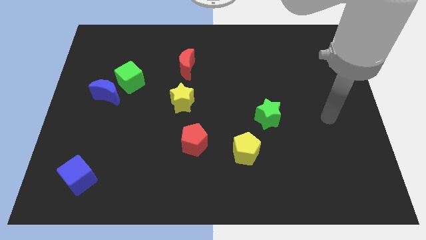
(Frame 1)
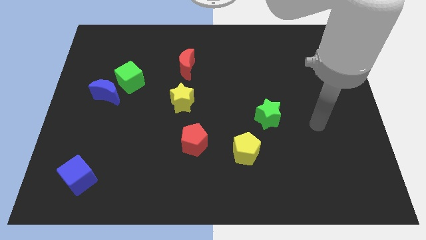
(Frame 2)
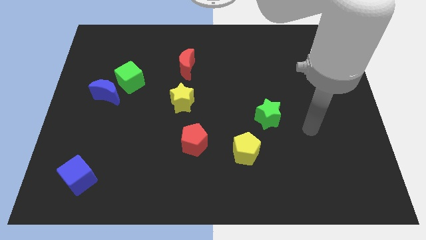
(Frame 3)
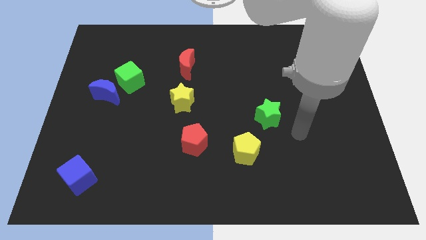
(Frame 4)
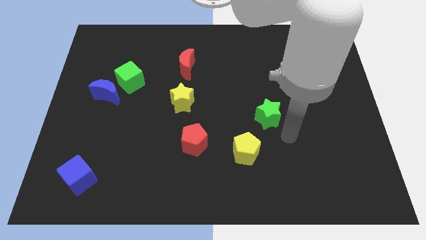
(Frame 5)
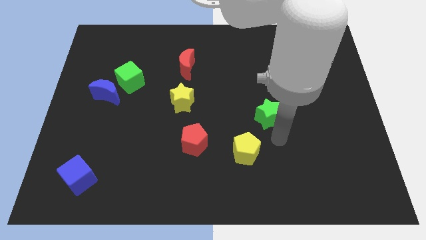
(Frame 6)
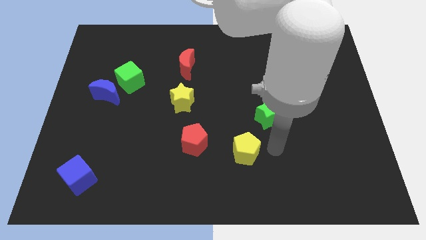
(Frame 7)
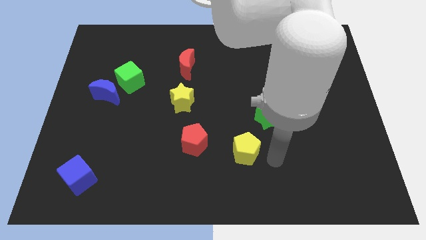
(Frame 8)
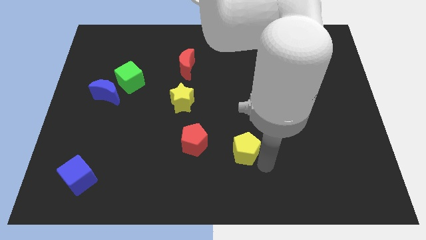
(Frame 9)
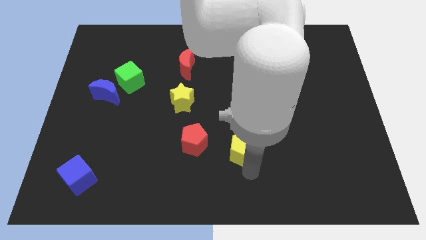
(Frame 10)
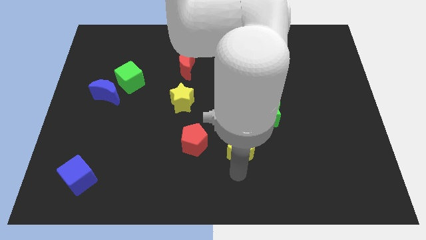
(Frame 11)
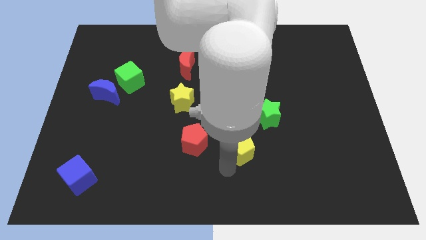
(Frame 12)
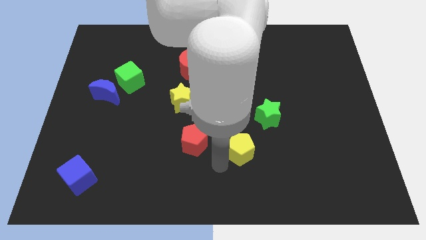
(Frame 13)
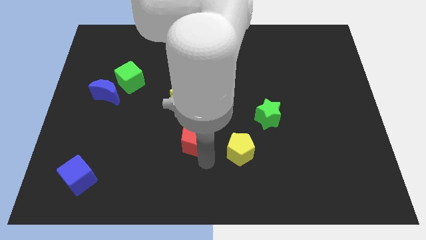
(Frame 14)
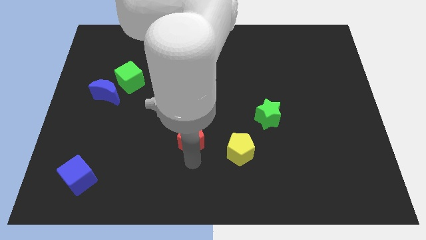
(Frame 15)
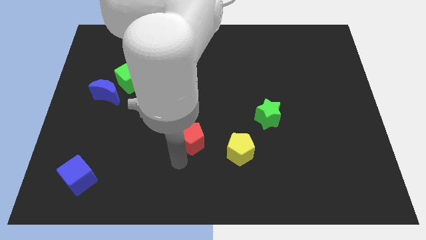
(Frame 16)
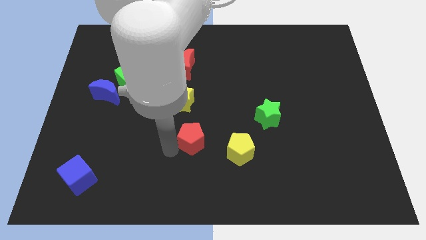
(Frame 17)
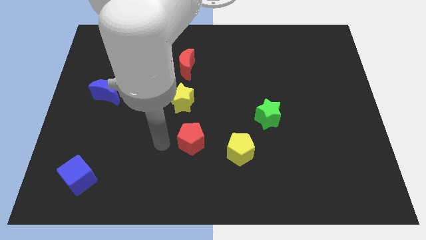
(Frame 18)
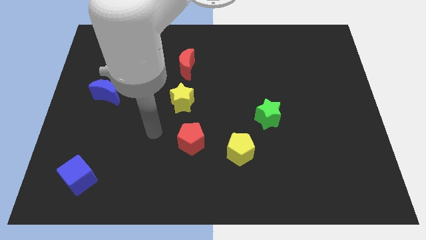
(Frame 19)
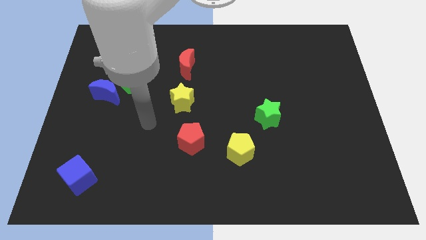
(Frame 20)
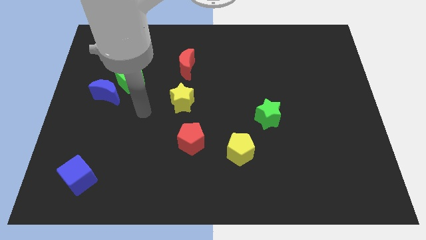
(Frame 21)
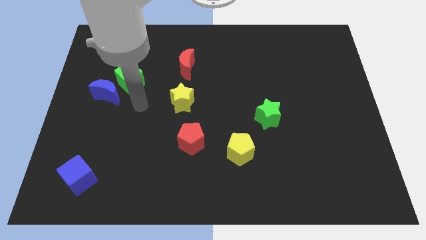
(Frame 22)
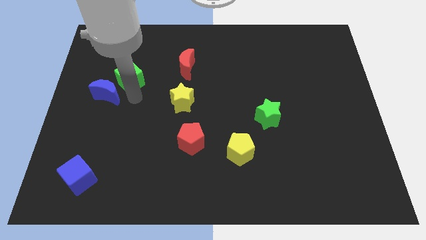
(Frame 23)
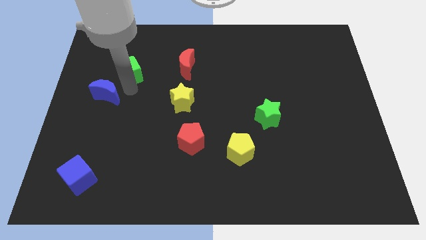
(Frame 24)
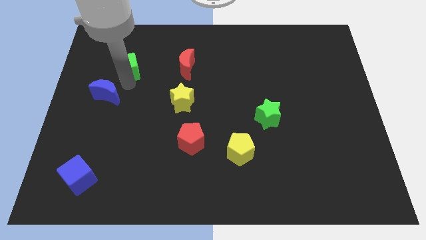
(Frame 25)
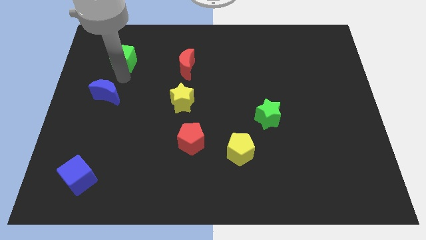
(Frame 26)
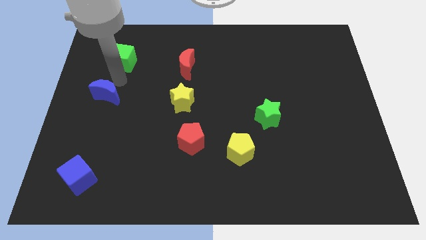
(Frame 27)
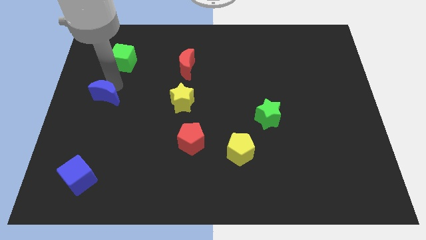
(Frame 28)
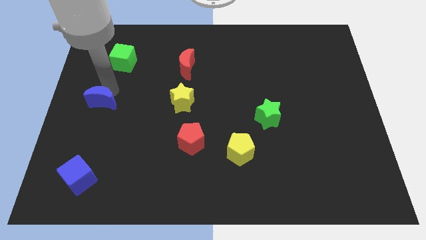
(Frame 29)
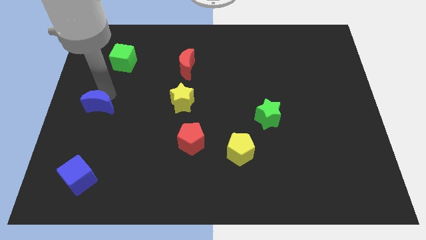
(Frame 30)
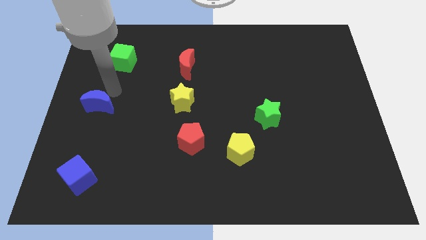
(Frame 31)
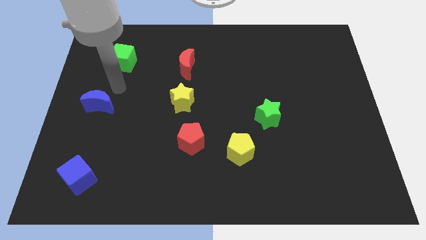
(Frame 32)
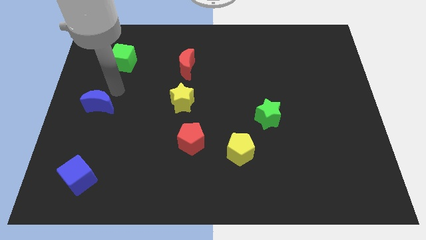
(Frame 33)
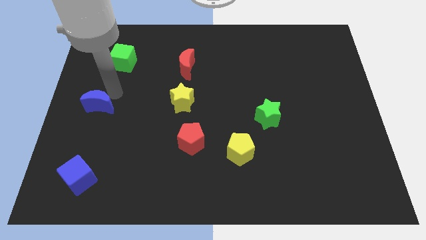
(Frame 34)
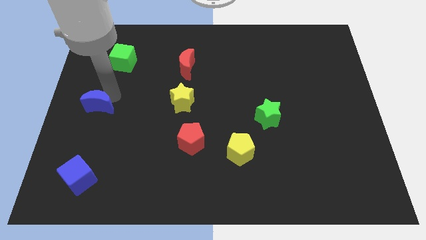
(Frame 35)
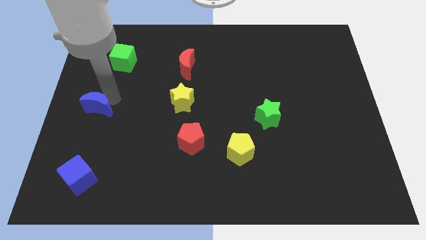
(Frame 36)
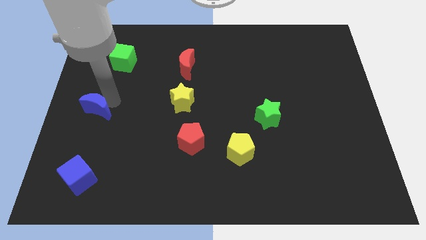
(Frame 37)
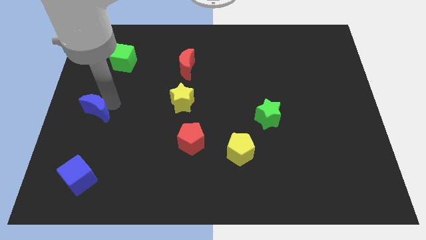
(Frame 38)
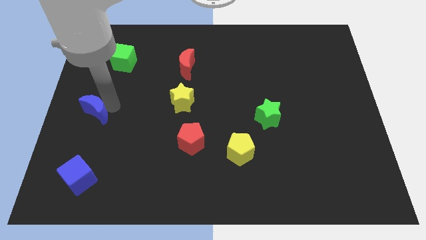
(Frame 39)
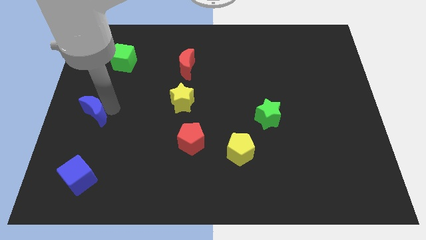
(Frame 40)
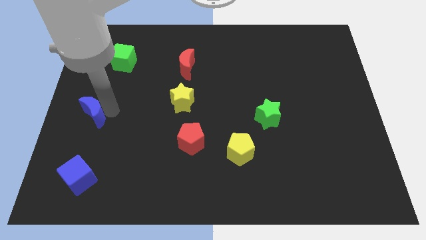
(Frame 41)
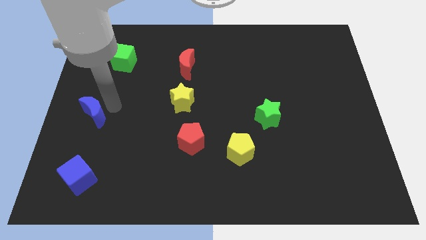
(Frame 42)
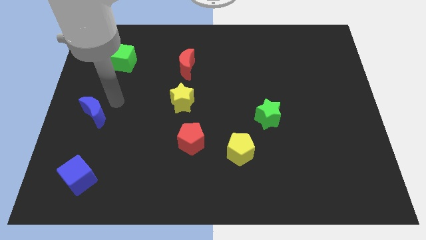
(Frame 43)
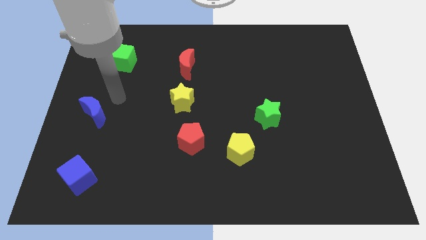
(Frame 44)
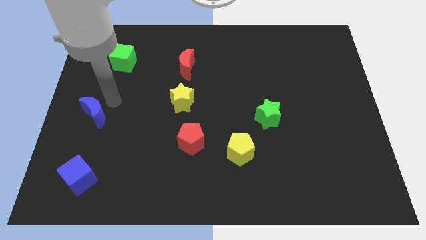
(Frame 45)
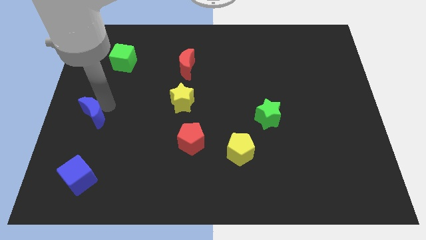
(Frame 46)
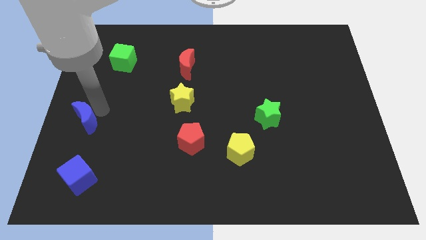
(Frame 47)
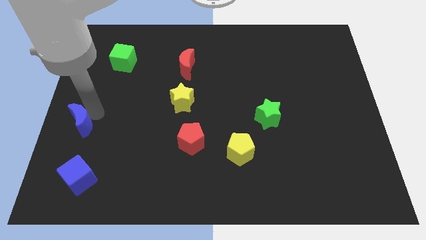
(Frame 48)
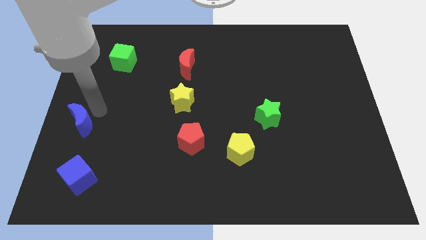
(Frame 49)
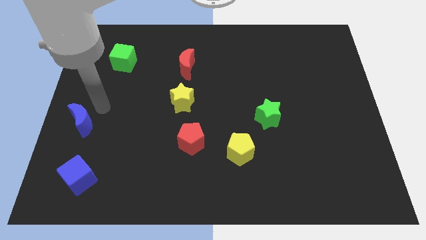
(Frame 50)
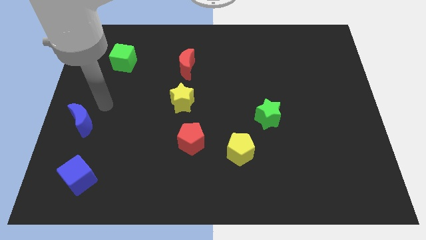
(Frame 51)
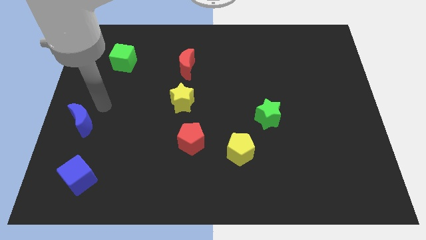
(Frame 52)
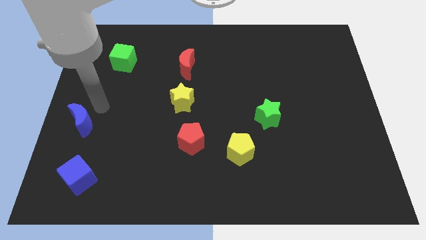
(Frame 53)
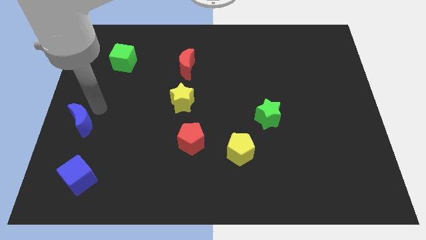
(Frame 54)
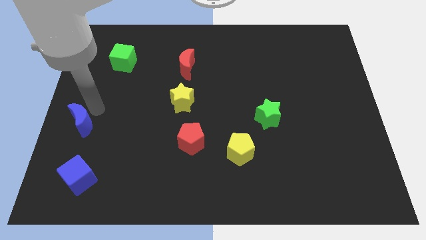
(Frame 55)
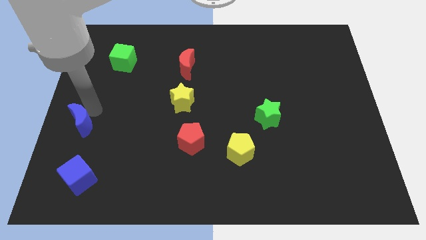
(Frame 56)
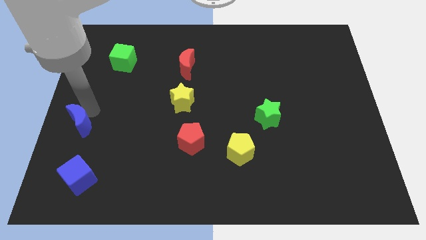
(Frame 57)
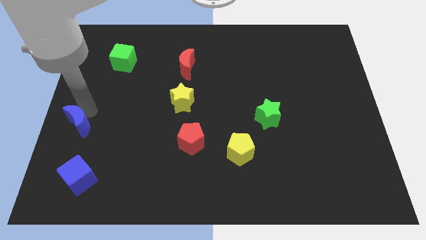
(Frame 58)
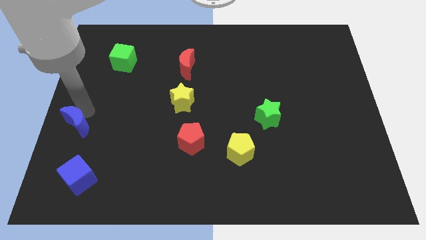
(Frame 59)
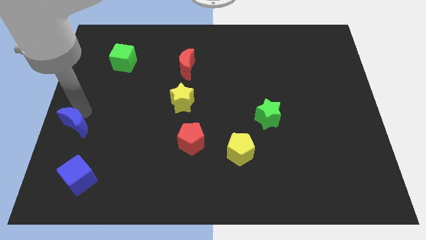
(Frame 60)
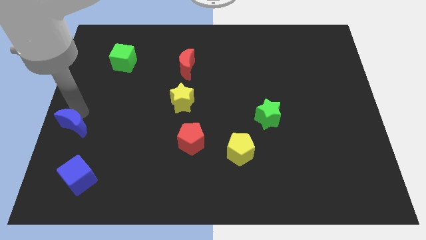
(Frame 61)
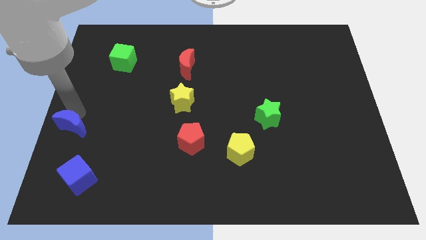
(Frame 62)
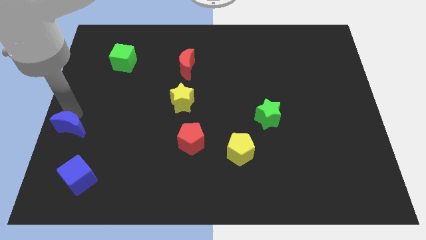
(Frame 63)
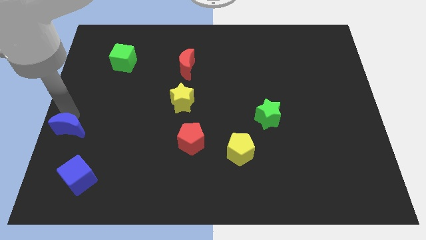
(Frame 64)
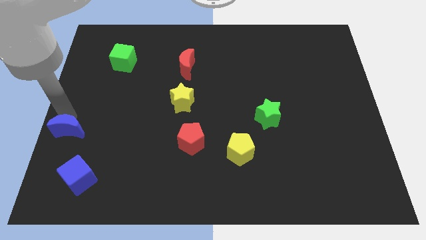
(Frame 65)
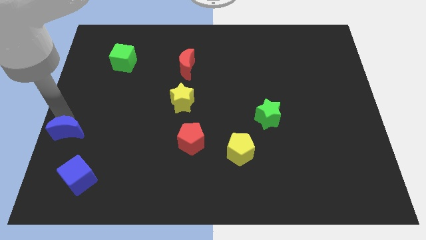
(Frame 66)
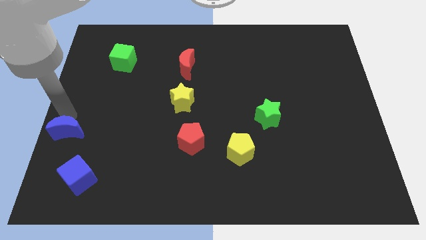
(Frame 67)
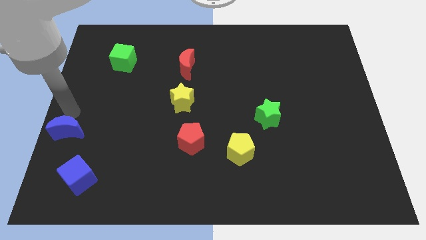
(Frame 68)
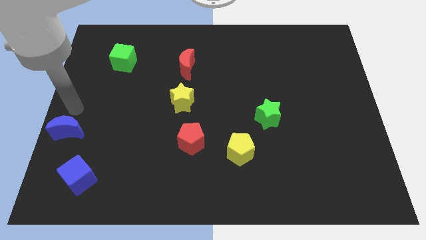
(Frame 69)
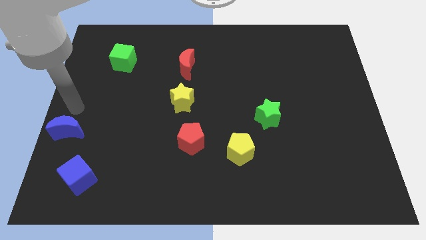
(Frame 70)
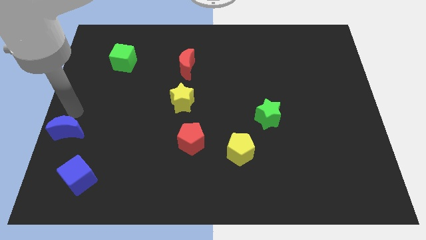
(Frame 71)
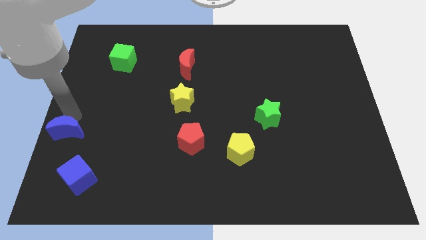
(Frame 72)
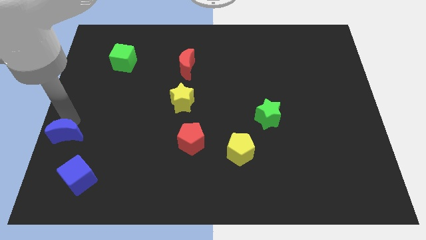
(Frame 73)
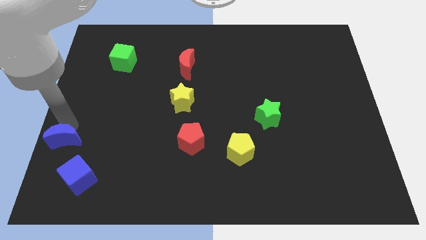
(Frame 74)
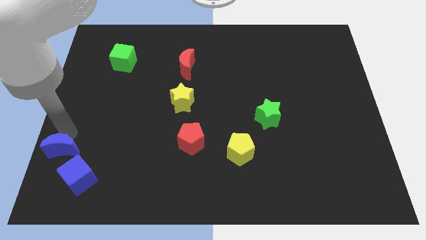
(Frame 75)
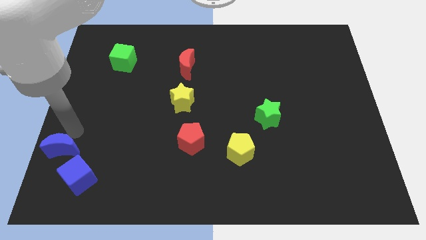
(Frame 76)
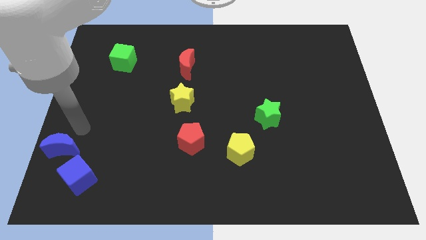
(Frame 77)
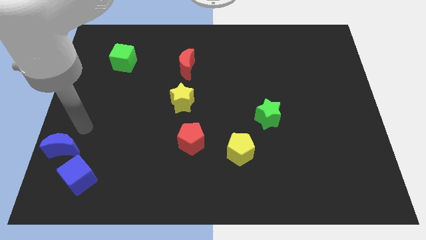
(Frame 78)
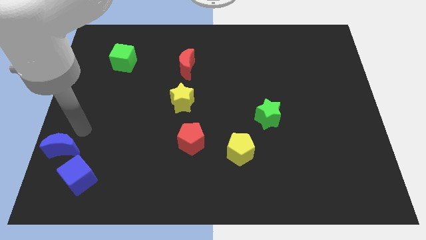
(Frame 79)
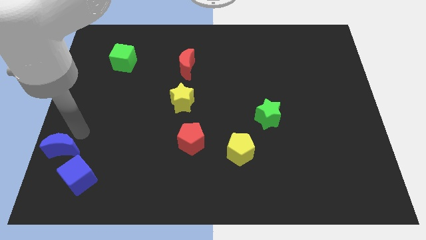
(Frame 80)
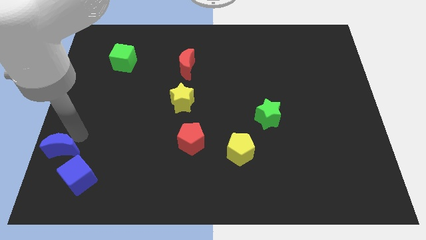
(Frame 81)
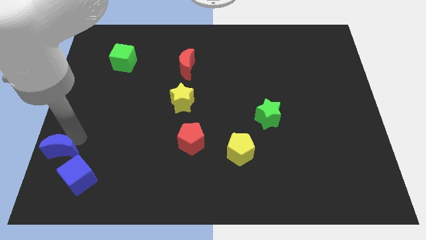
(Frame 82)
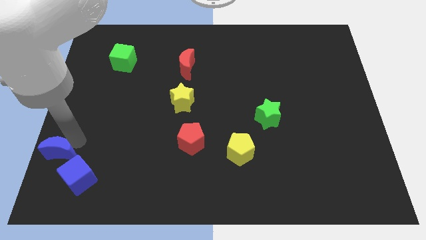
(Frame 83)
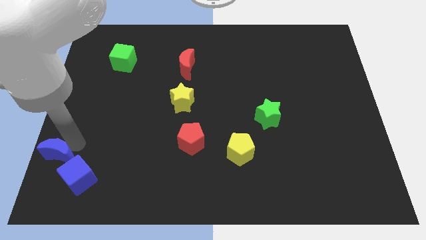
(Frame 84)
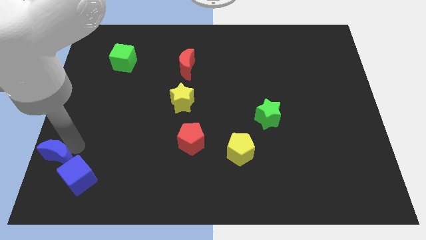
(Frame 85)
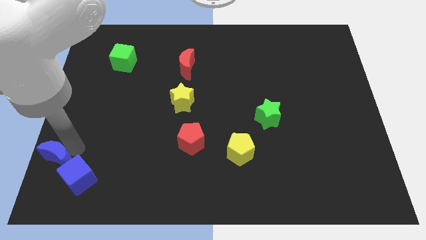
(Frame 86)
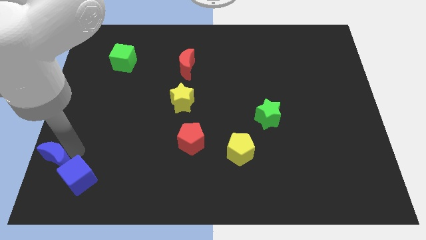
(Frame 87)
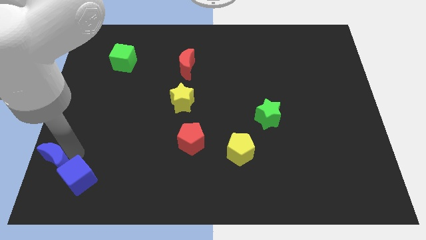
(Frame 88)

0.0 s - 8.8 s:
put the blue moon to the lower left corner
